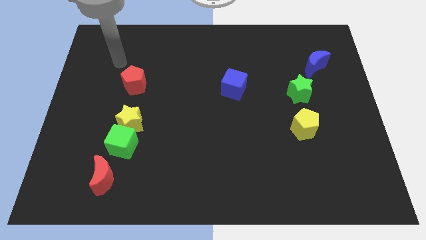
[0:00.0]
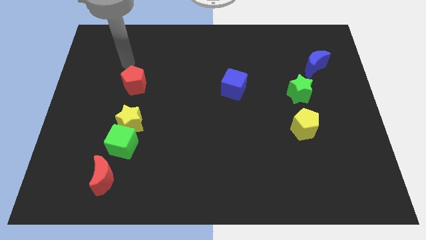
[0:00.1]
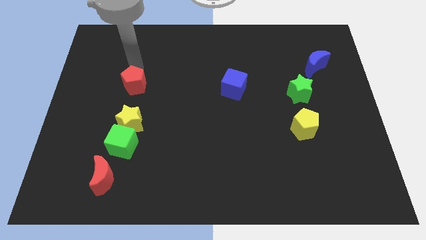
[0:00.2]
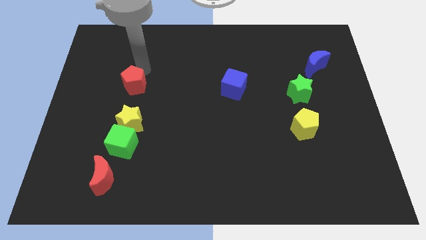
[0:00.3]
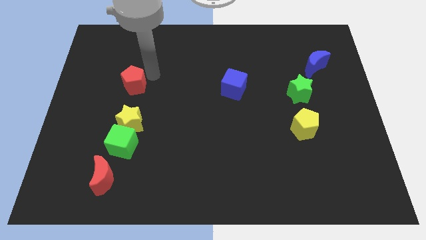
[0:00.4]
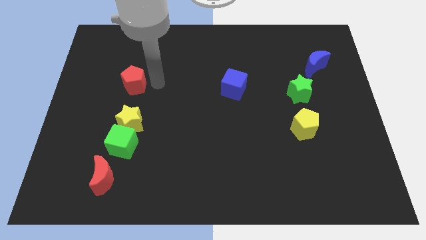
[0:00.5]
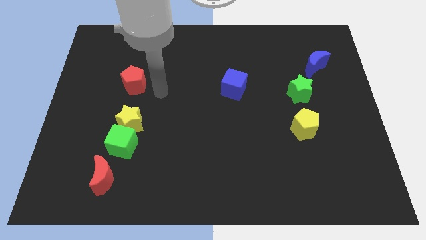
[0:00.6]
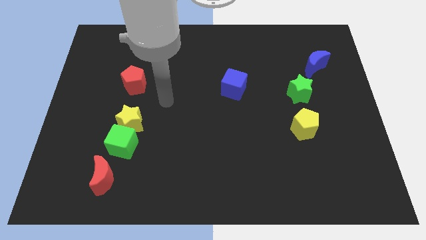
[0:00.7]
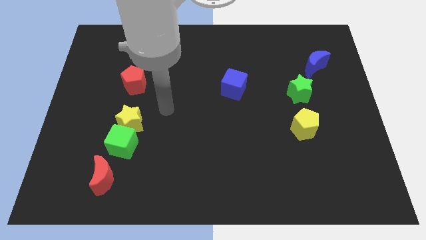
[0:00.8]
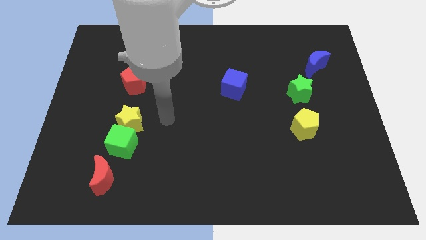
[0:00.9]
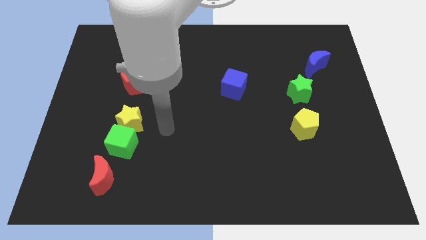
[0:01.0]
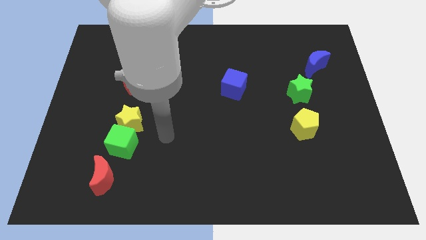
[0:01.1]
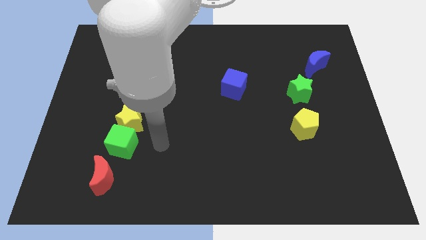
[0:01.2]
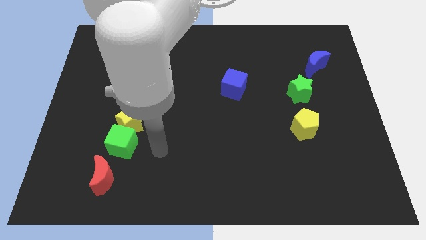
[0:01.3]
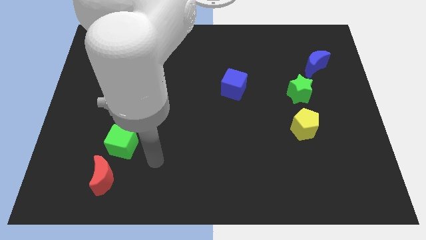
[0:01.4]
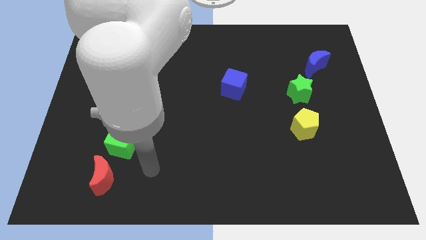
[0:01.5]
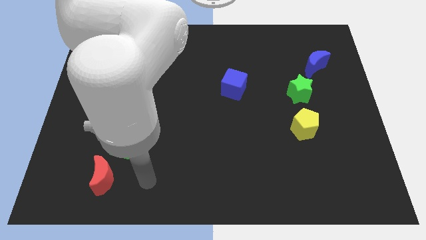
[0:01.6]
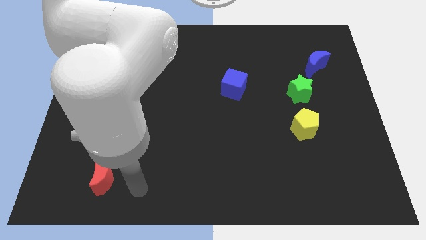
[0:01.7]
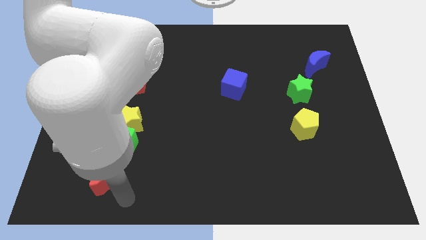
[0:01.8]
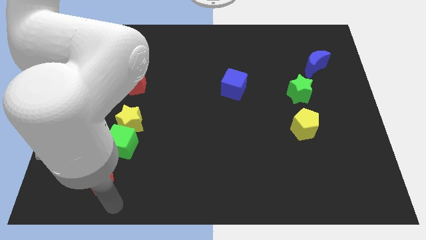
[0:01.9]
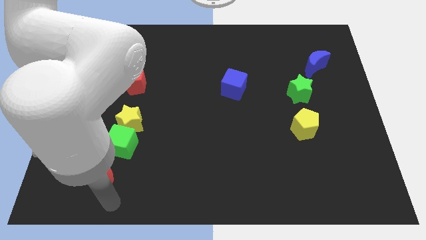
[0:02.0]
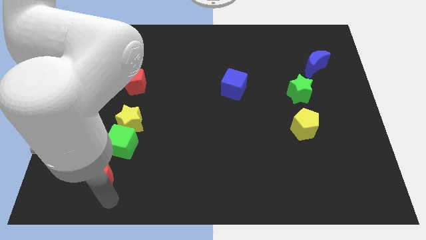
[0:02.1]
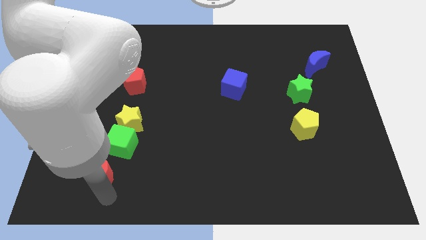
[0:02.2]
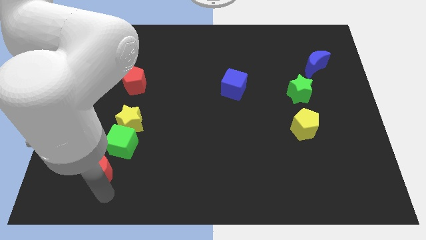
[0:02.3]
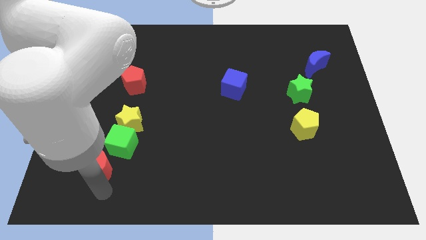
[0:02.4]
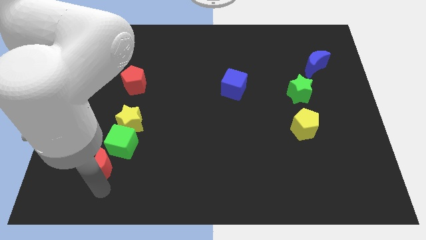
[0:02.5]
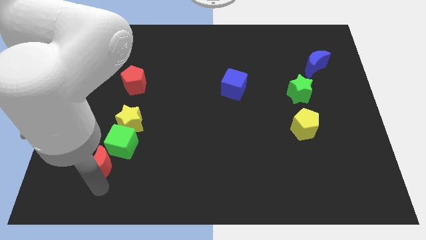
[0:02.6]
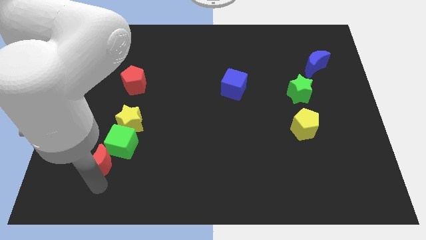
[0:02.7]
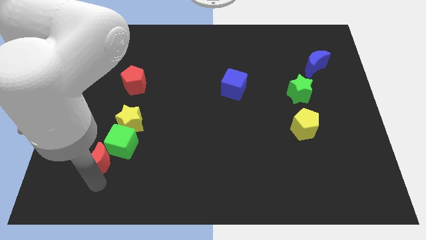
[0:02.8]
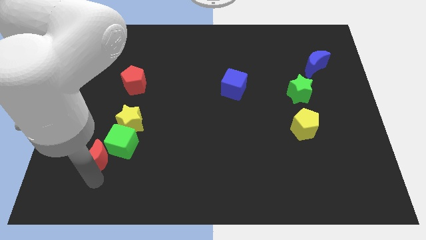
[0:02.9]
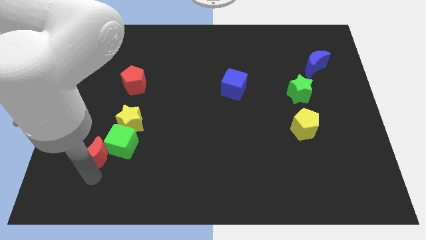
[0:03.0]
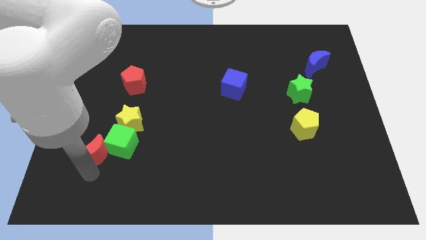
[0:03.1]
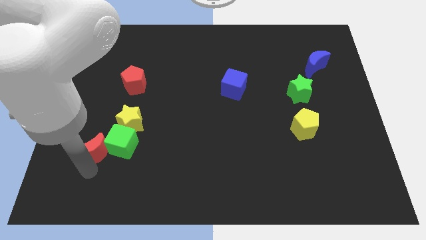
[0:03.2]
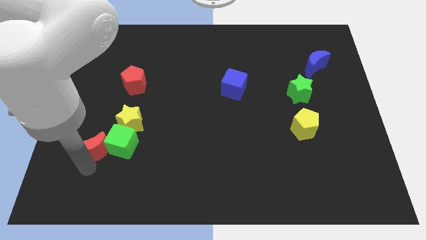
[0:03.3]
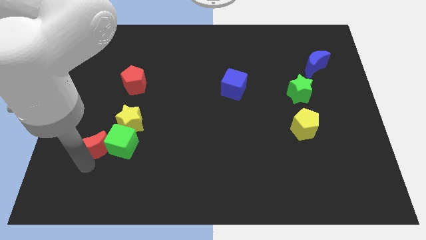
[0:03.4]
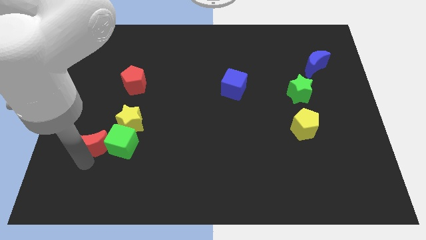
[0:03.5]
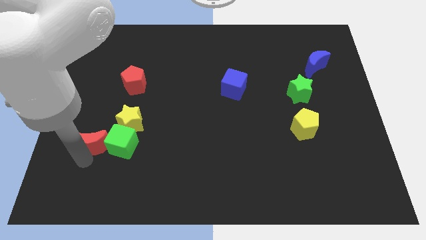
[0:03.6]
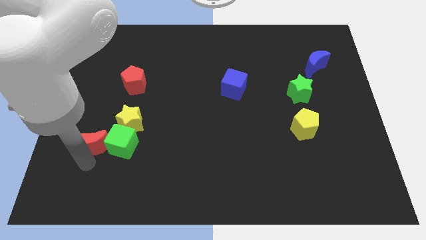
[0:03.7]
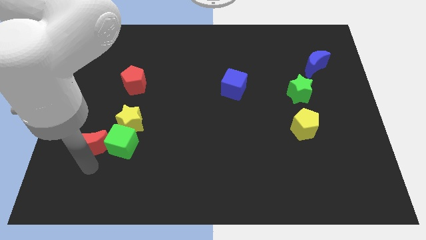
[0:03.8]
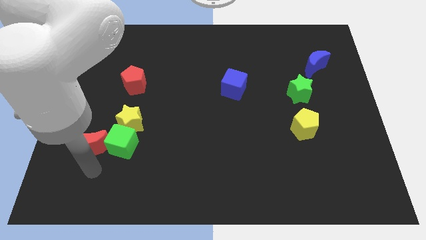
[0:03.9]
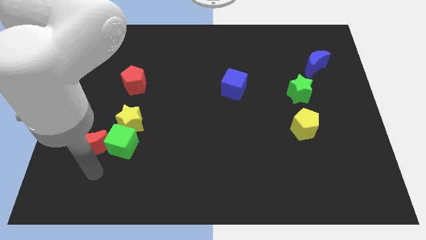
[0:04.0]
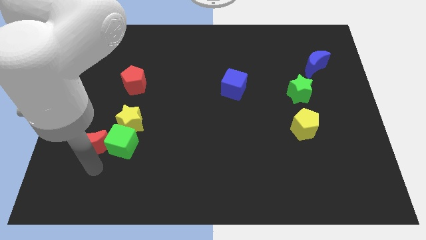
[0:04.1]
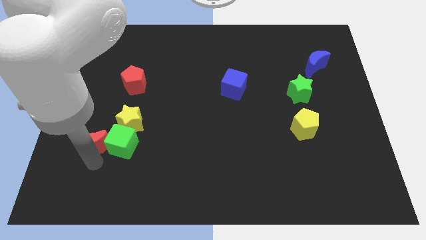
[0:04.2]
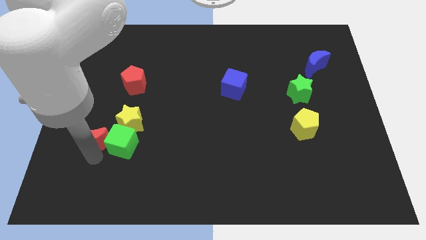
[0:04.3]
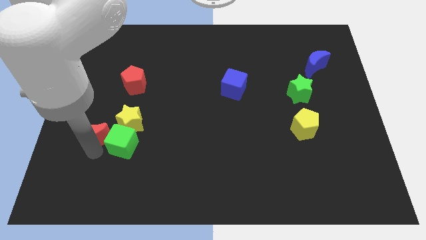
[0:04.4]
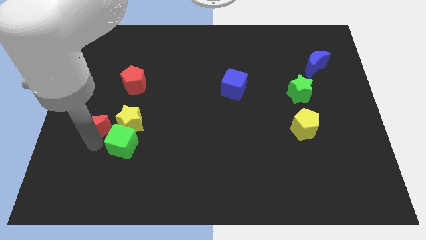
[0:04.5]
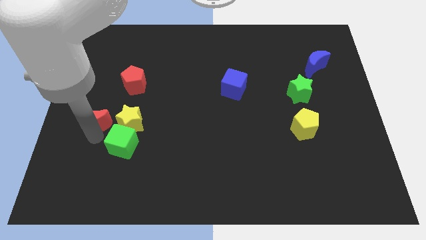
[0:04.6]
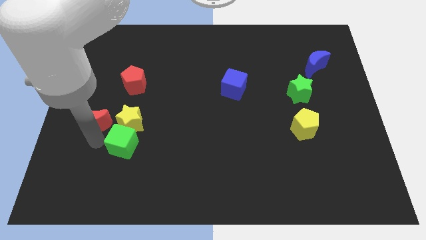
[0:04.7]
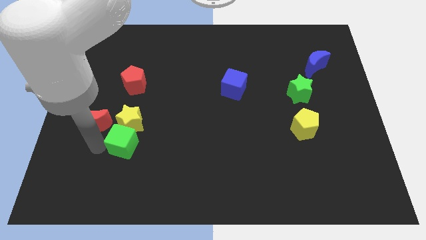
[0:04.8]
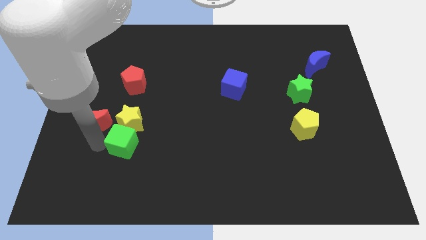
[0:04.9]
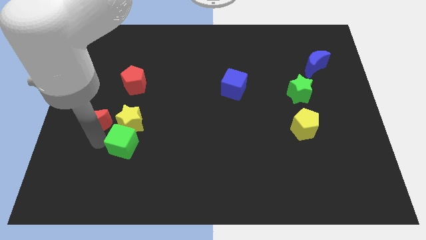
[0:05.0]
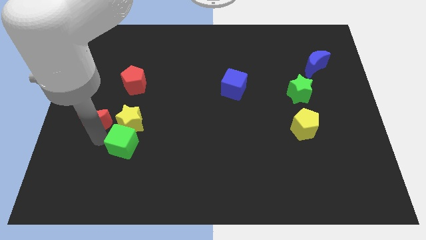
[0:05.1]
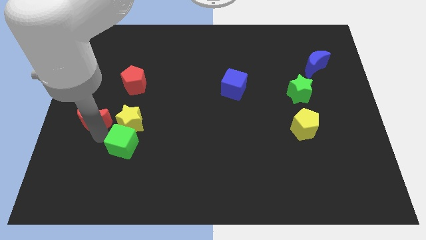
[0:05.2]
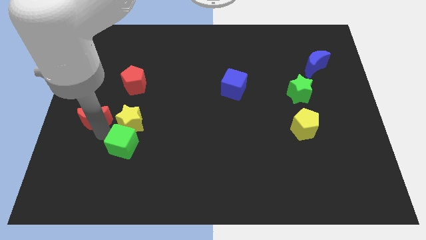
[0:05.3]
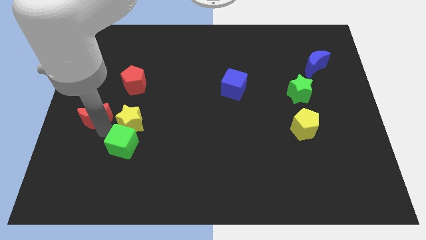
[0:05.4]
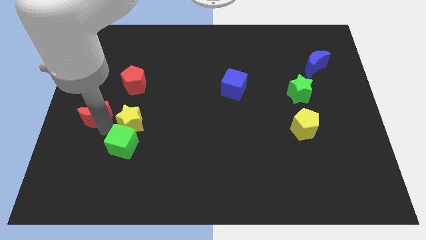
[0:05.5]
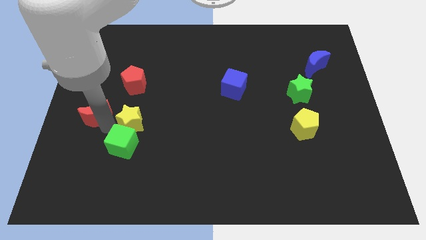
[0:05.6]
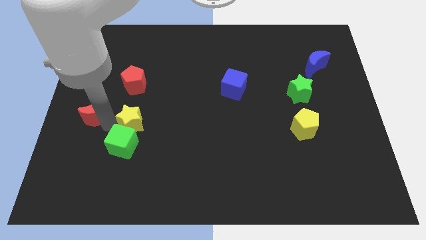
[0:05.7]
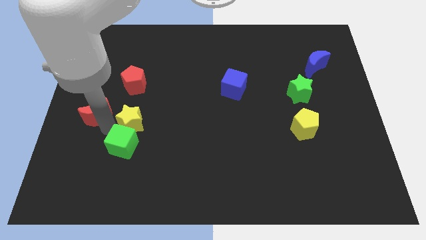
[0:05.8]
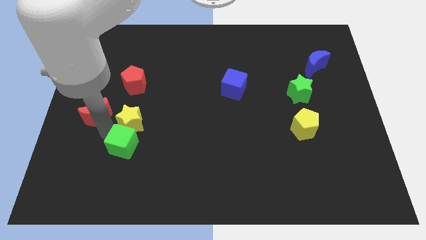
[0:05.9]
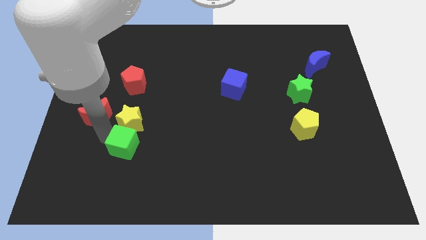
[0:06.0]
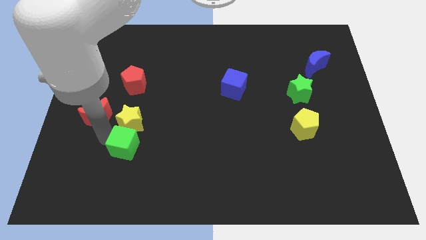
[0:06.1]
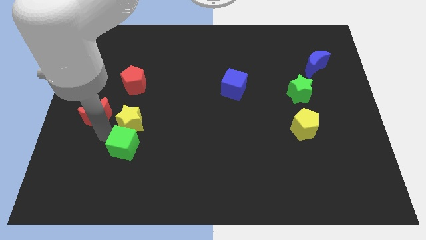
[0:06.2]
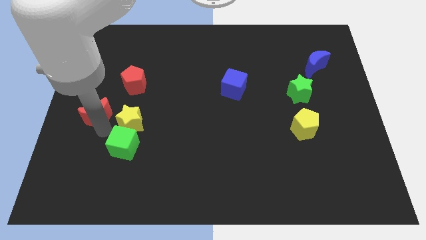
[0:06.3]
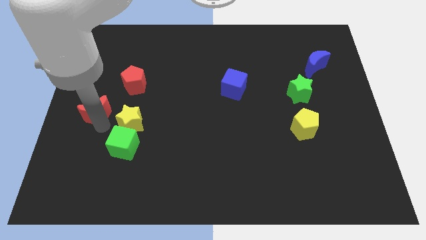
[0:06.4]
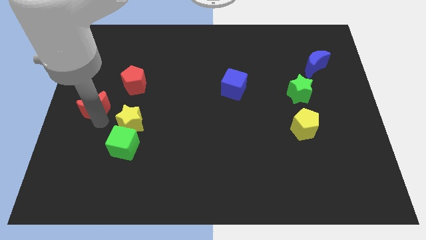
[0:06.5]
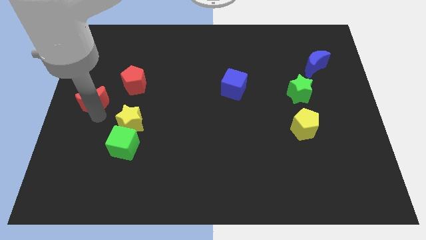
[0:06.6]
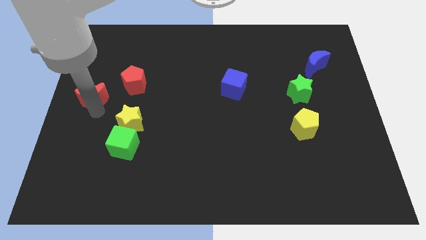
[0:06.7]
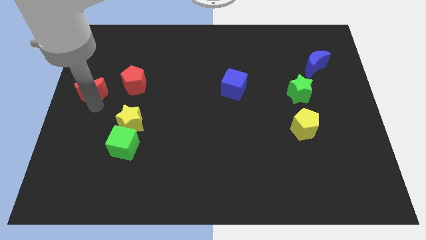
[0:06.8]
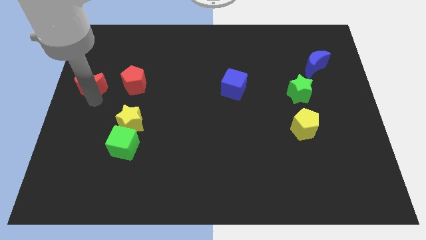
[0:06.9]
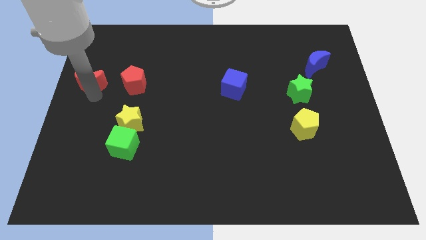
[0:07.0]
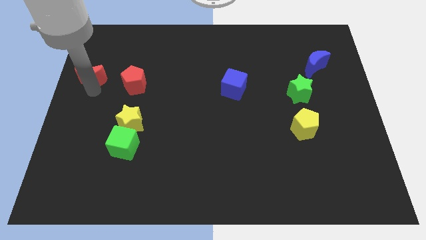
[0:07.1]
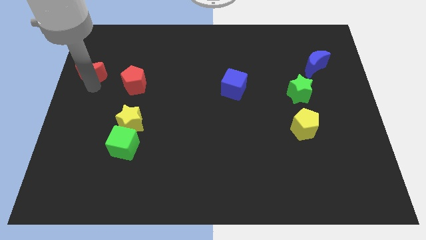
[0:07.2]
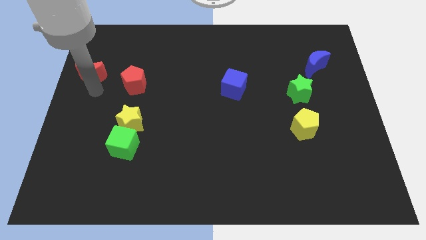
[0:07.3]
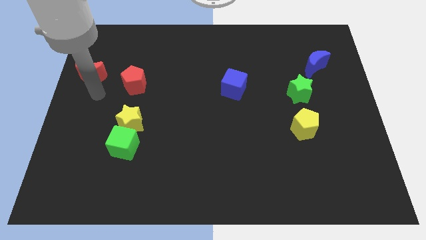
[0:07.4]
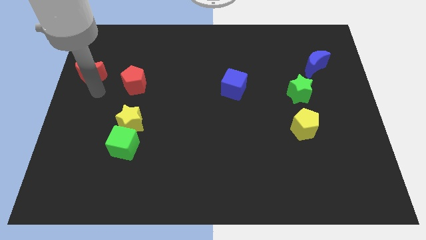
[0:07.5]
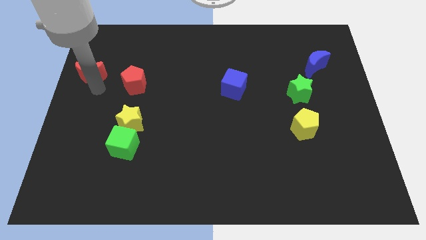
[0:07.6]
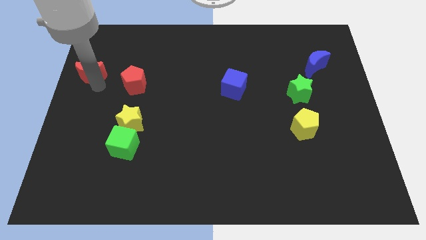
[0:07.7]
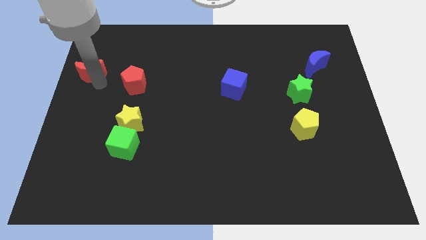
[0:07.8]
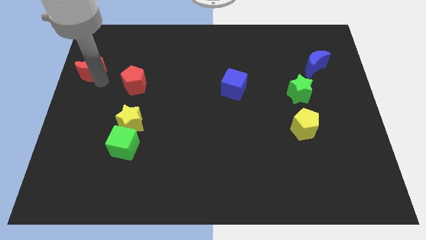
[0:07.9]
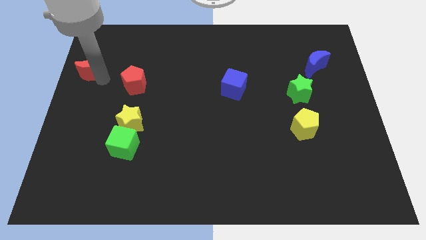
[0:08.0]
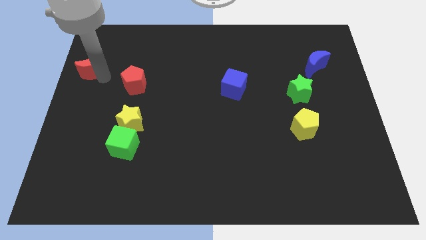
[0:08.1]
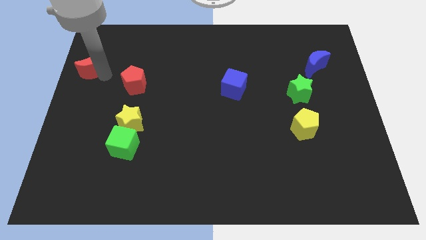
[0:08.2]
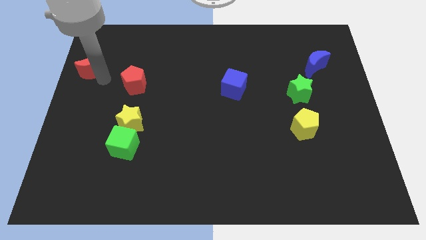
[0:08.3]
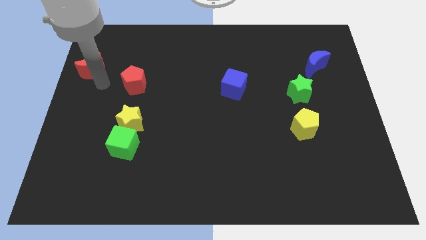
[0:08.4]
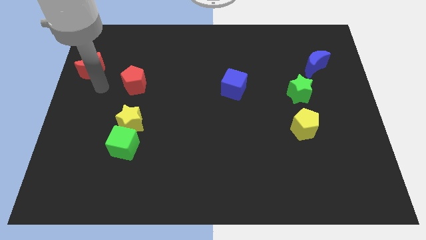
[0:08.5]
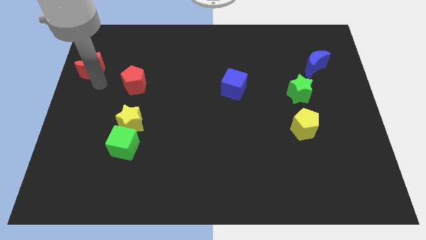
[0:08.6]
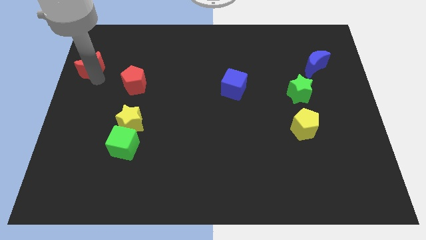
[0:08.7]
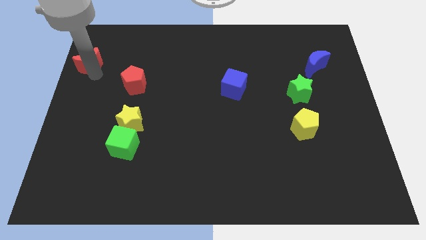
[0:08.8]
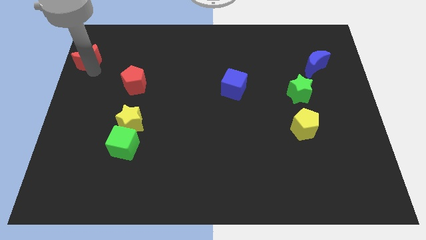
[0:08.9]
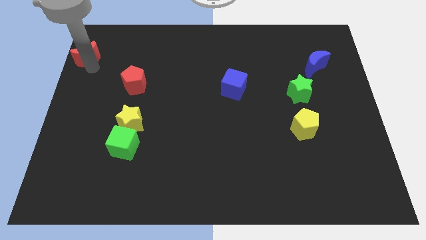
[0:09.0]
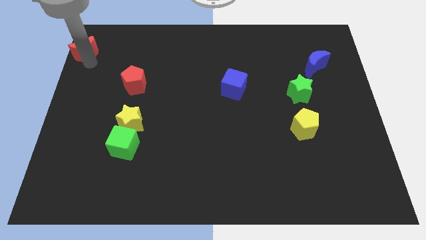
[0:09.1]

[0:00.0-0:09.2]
slide the red moon to the top left of the board
